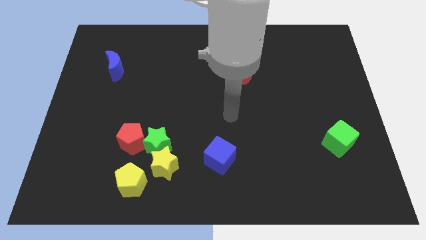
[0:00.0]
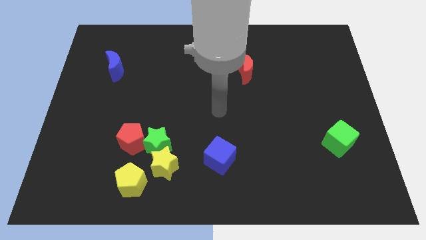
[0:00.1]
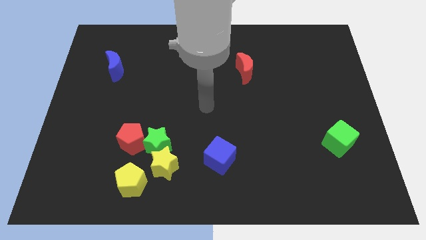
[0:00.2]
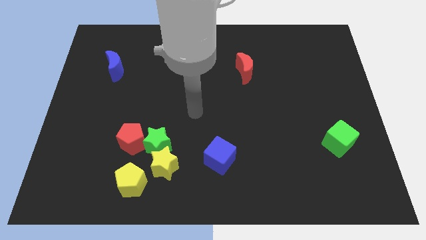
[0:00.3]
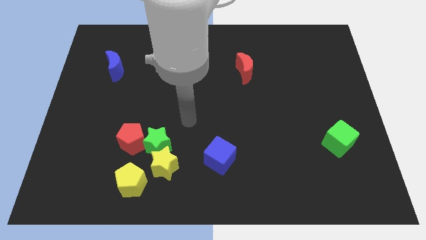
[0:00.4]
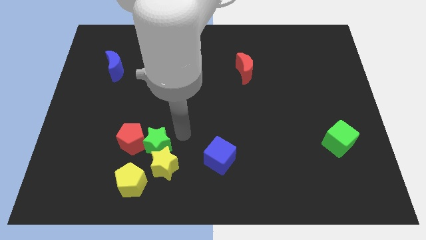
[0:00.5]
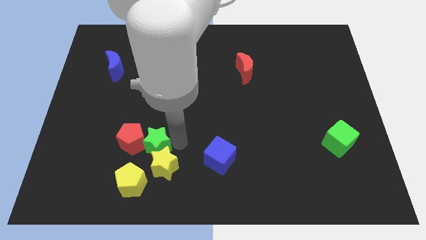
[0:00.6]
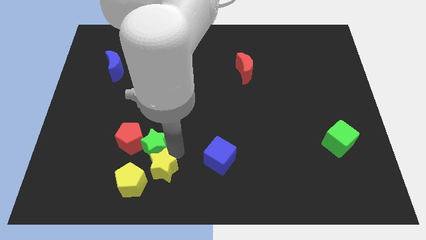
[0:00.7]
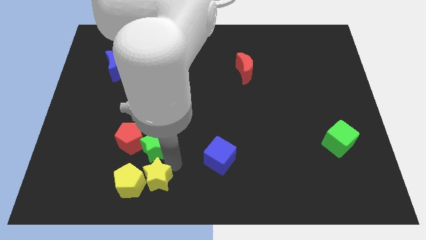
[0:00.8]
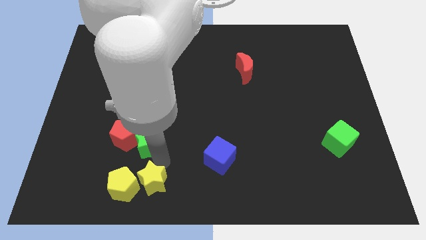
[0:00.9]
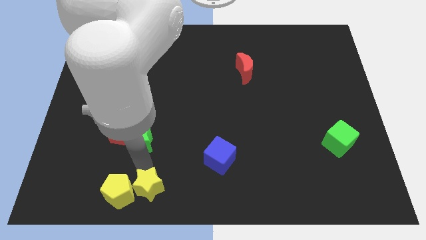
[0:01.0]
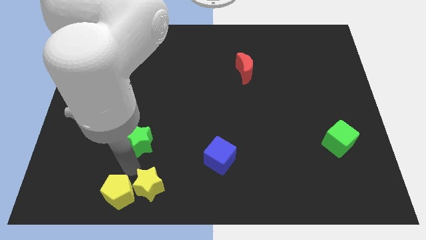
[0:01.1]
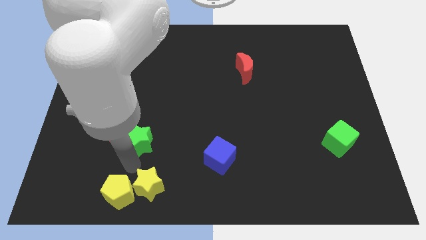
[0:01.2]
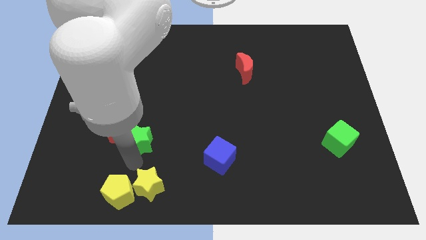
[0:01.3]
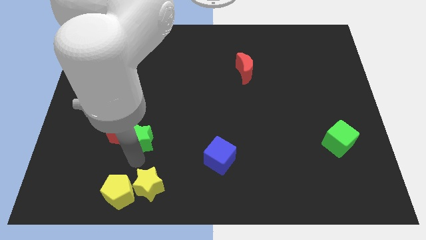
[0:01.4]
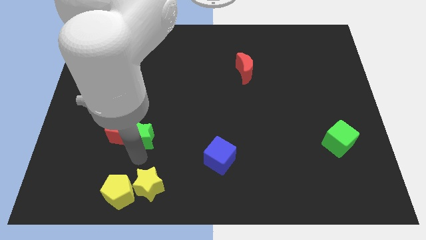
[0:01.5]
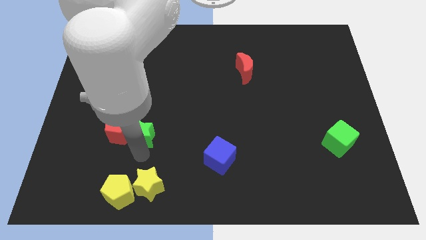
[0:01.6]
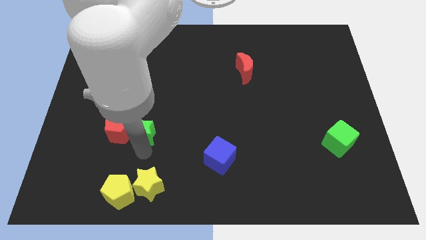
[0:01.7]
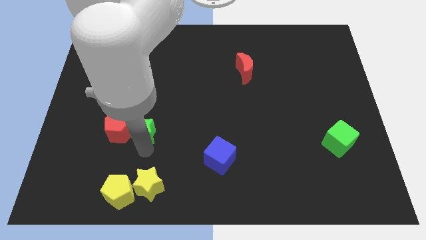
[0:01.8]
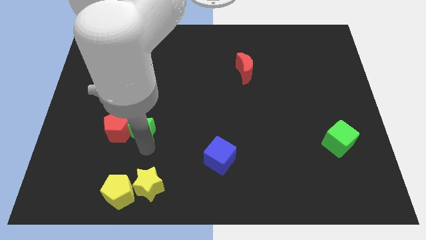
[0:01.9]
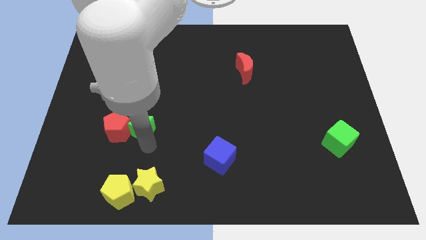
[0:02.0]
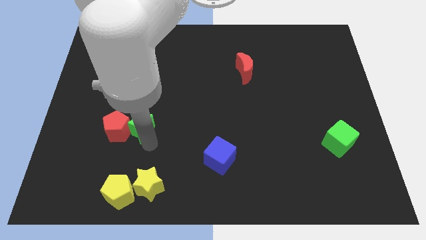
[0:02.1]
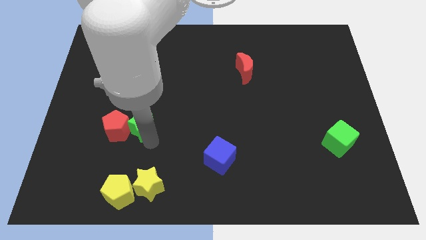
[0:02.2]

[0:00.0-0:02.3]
separate the green star from the yellow star, red pentagon, and yellow pentagon

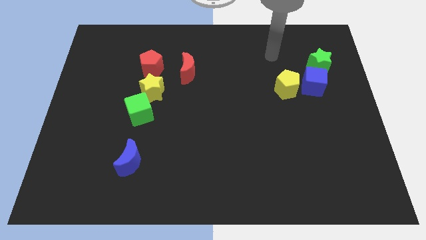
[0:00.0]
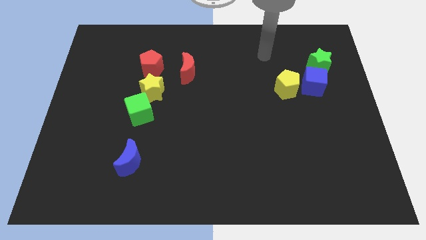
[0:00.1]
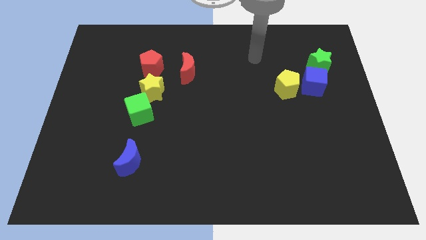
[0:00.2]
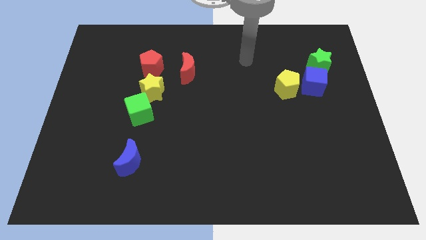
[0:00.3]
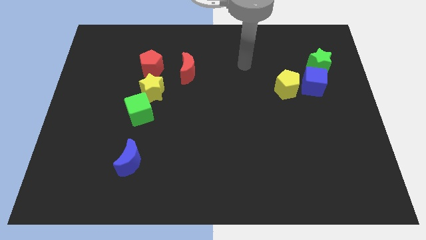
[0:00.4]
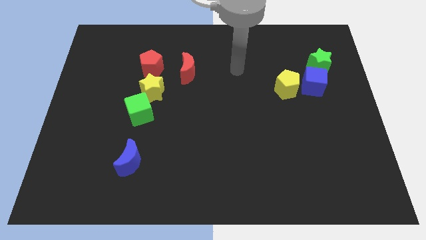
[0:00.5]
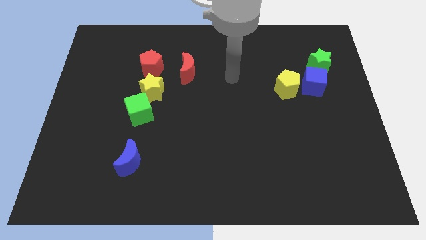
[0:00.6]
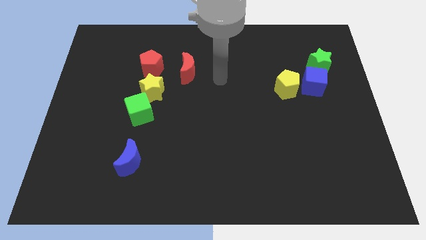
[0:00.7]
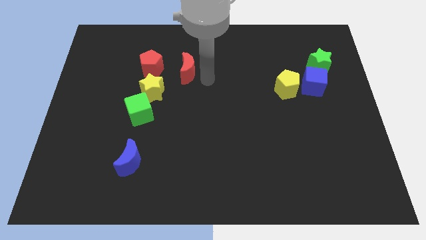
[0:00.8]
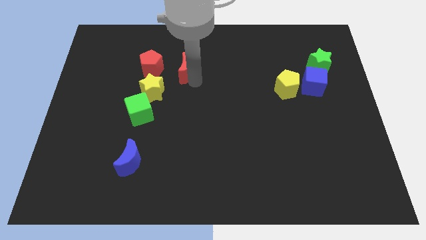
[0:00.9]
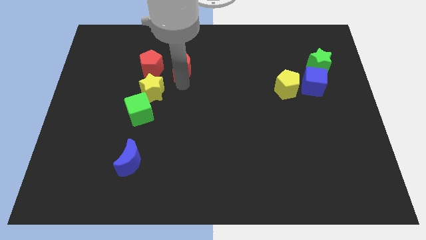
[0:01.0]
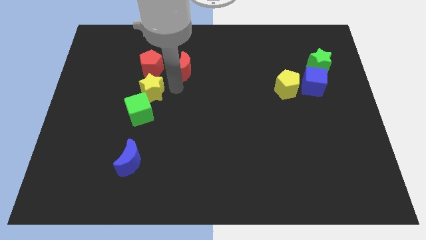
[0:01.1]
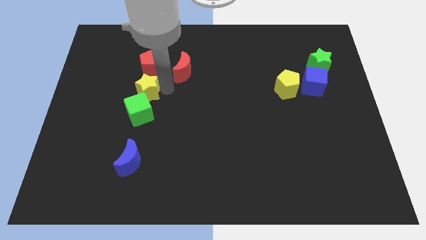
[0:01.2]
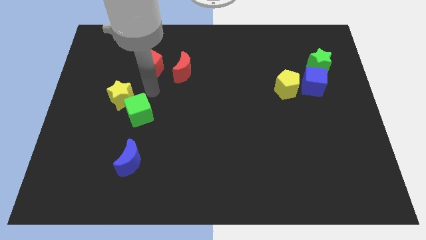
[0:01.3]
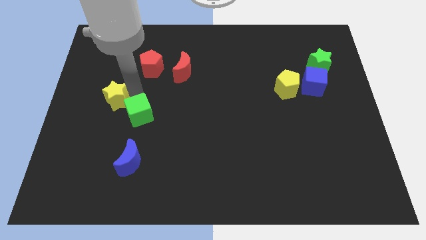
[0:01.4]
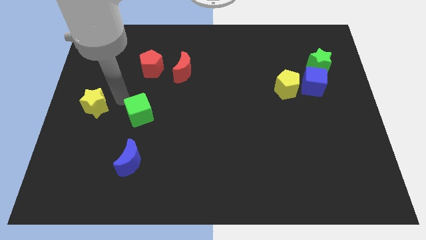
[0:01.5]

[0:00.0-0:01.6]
move the green cube away from the yellow star

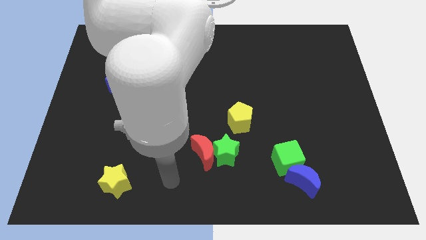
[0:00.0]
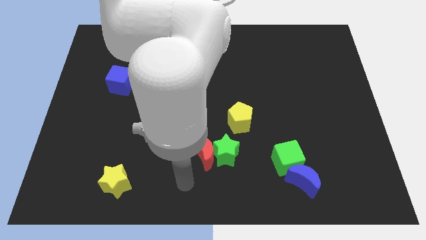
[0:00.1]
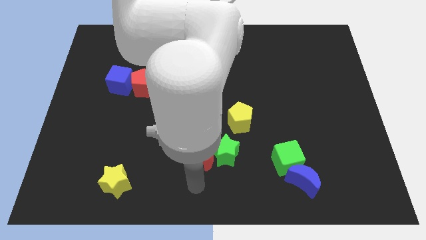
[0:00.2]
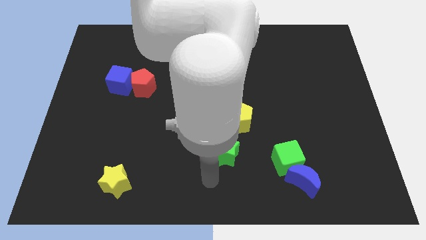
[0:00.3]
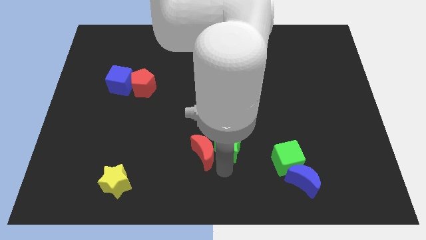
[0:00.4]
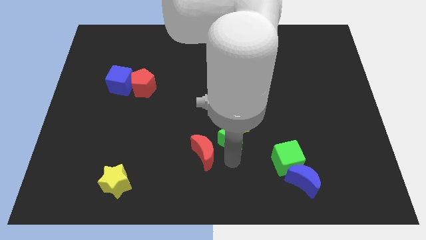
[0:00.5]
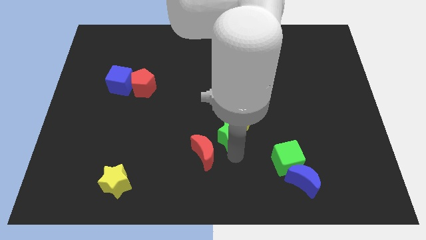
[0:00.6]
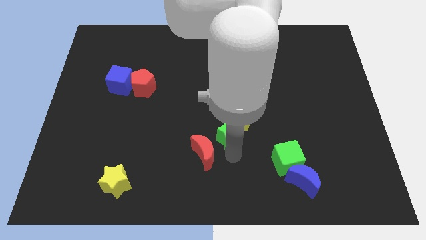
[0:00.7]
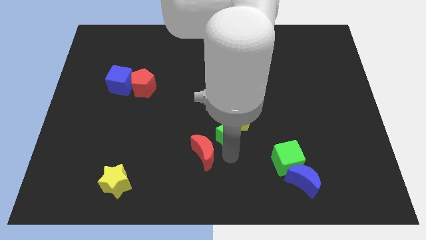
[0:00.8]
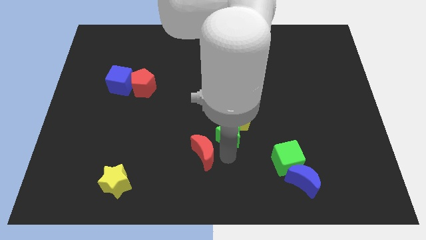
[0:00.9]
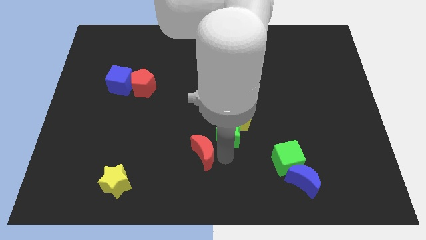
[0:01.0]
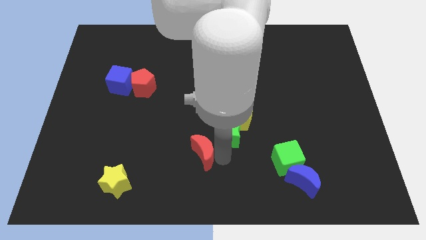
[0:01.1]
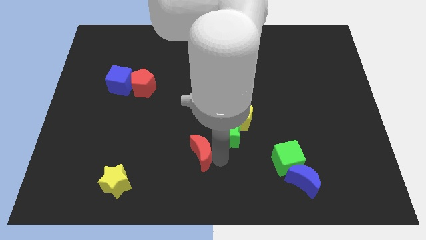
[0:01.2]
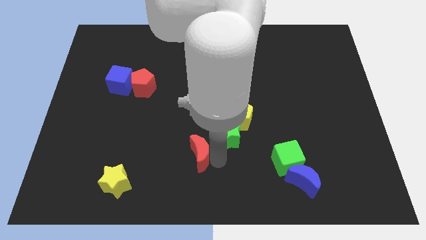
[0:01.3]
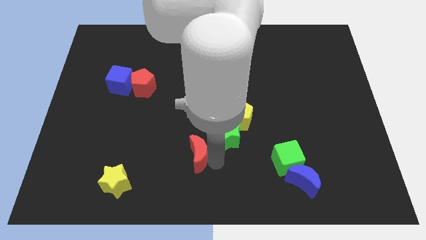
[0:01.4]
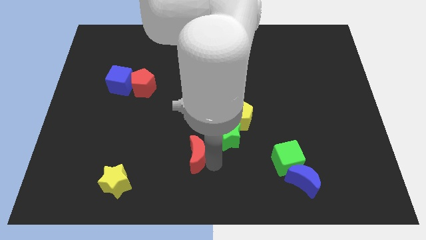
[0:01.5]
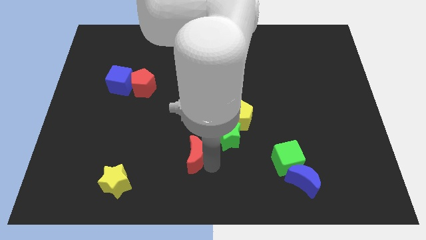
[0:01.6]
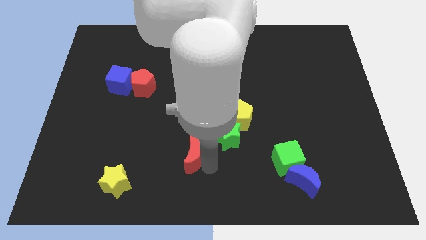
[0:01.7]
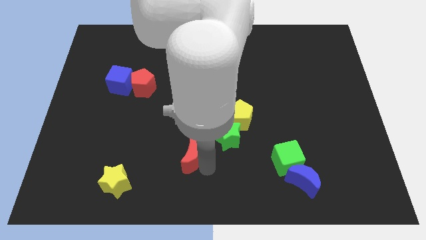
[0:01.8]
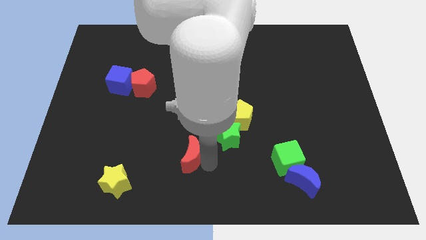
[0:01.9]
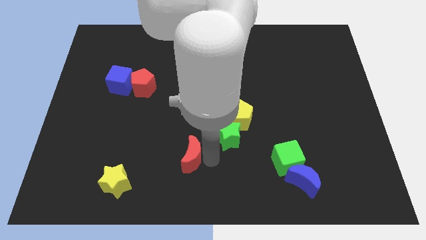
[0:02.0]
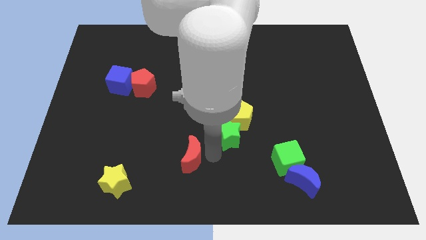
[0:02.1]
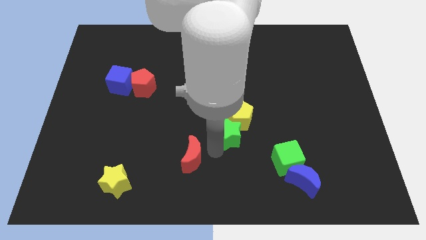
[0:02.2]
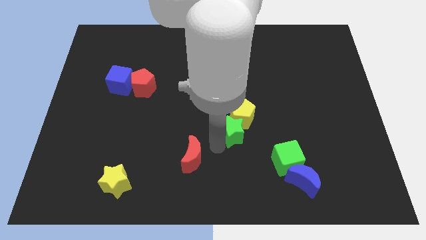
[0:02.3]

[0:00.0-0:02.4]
move the red moon away from the green star

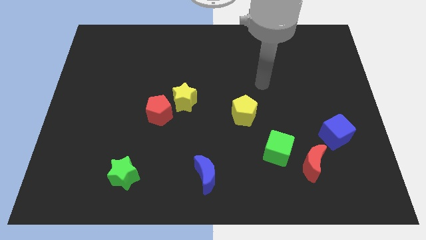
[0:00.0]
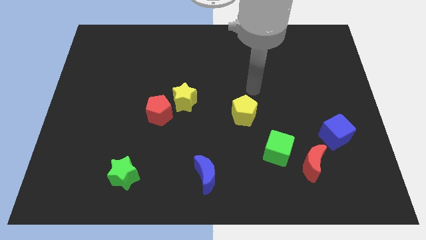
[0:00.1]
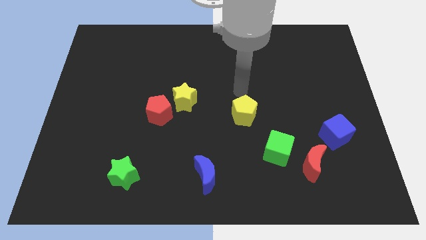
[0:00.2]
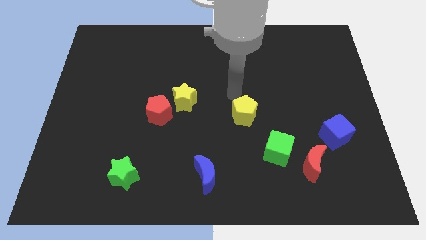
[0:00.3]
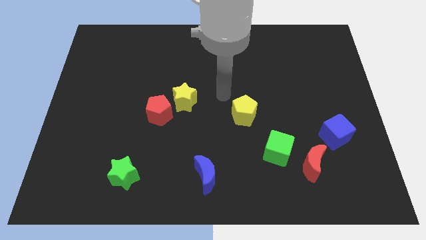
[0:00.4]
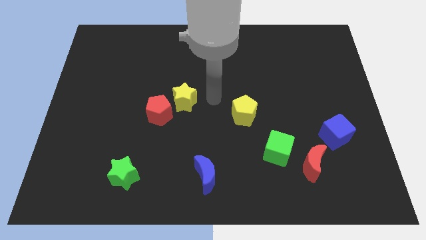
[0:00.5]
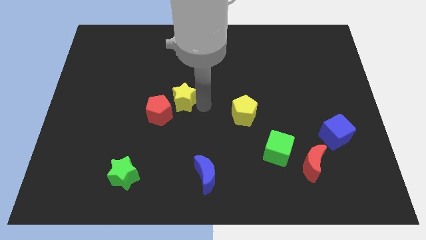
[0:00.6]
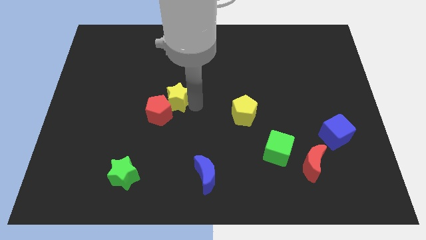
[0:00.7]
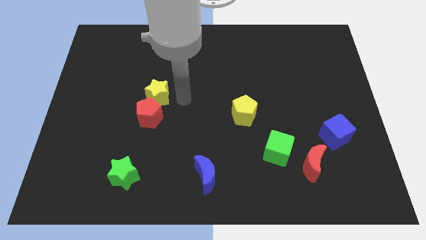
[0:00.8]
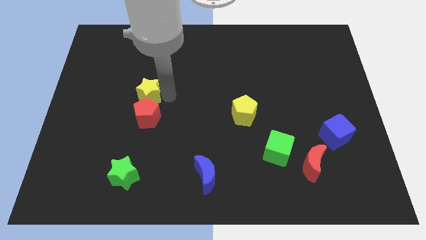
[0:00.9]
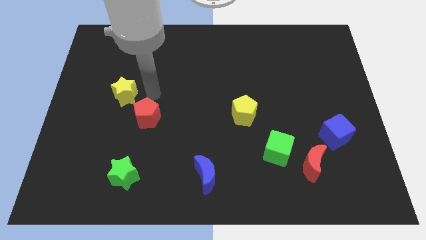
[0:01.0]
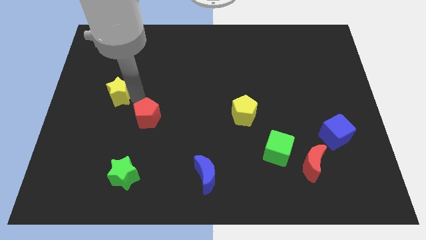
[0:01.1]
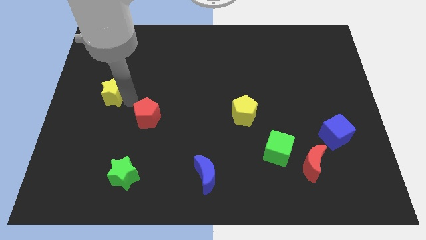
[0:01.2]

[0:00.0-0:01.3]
pull the red pentagon apart from the yellow star

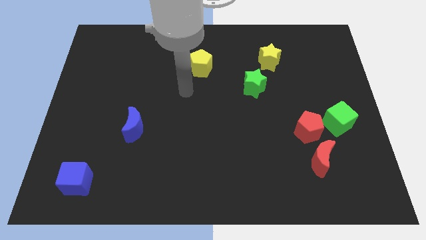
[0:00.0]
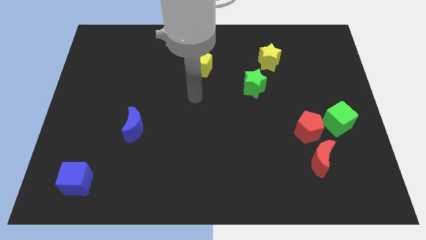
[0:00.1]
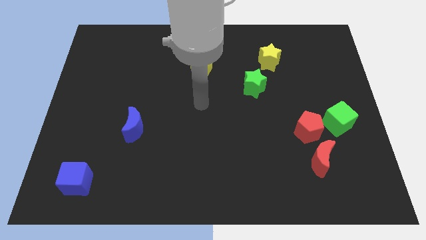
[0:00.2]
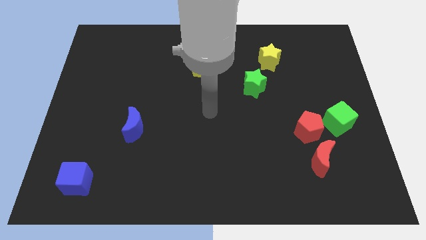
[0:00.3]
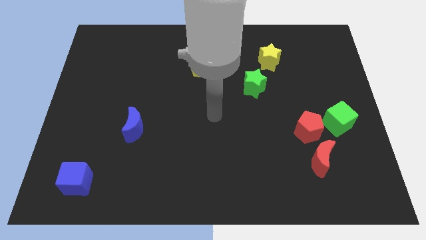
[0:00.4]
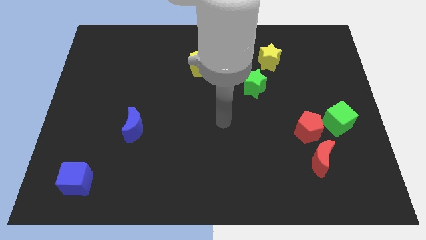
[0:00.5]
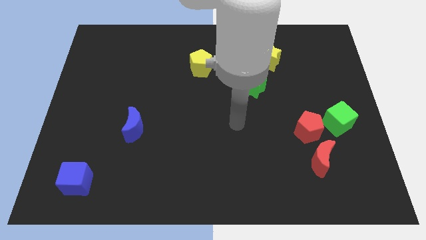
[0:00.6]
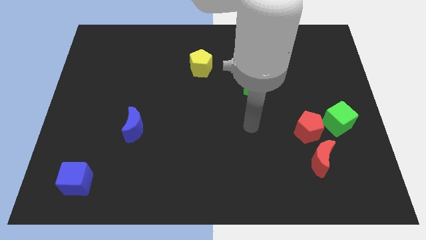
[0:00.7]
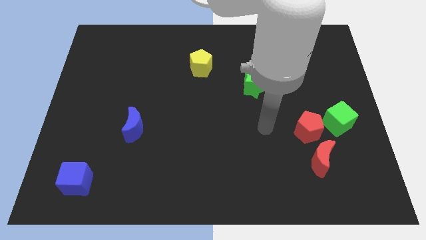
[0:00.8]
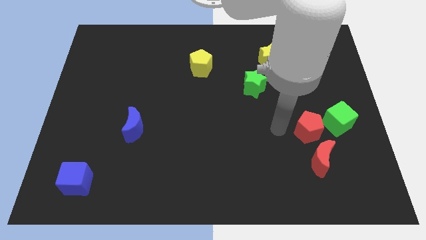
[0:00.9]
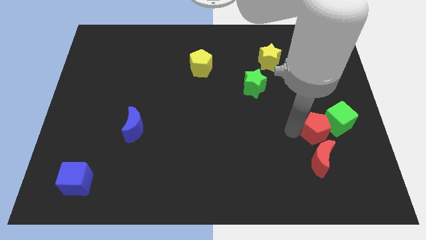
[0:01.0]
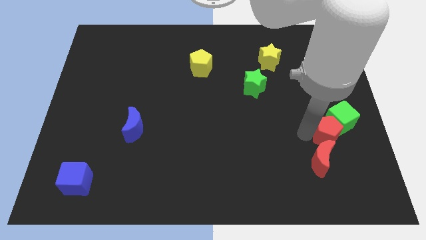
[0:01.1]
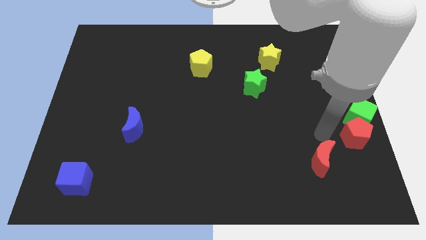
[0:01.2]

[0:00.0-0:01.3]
separate the red moon from the red pentagon

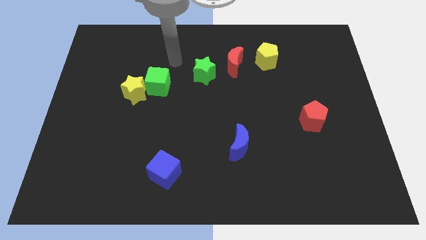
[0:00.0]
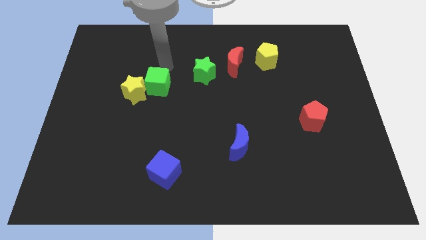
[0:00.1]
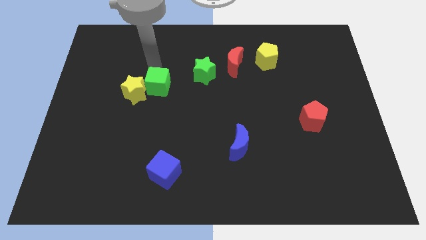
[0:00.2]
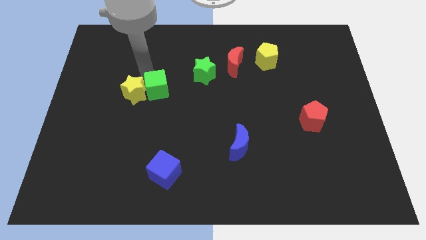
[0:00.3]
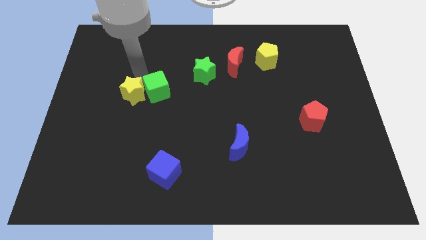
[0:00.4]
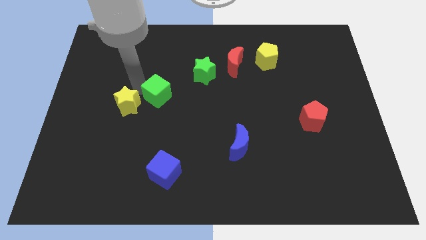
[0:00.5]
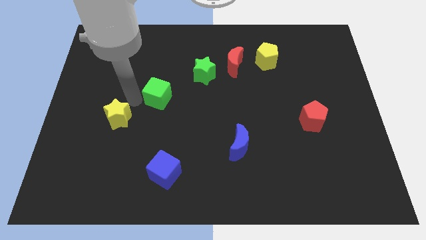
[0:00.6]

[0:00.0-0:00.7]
pull the green cube apart from the yellow star
